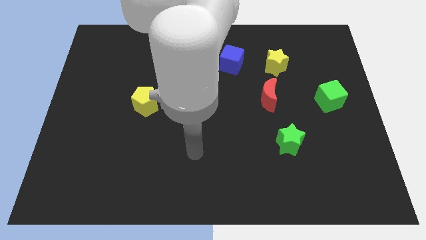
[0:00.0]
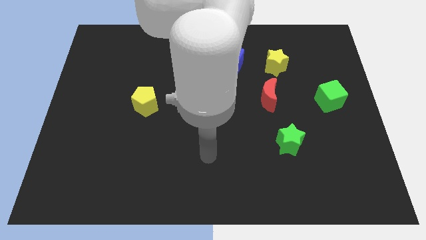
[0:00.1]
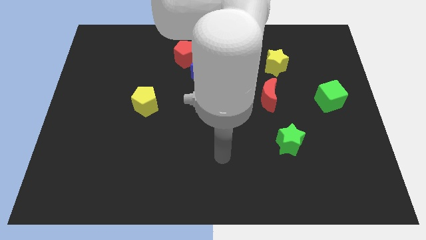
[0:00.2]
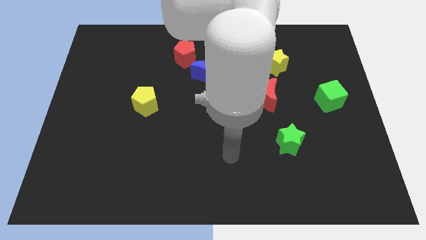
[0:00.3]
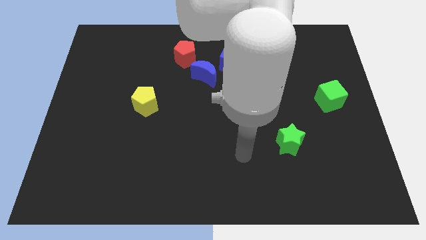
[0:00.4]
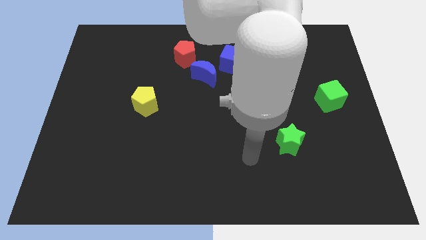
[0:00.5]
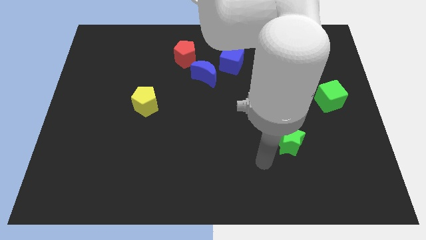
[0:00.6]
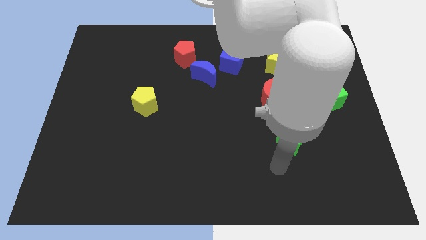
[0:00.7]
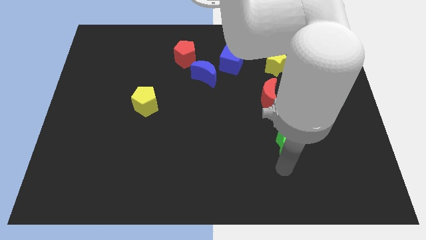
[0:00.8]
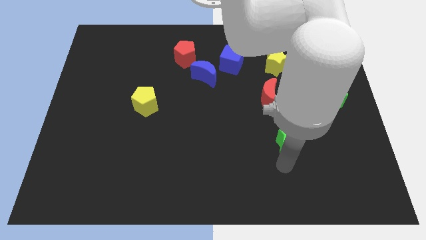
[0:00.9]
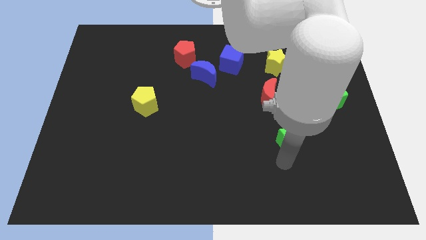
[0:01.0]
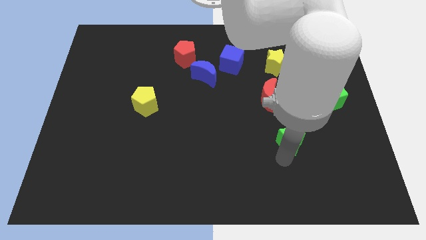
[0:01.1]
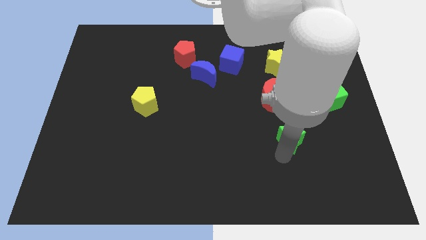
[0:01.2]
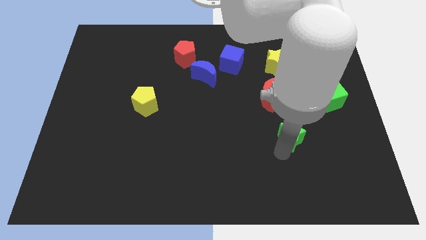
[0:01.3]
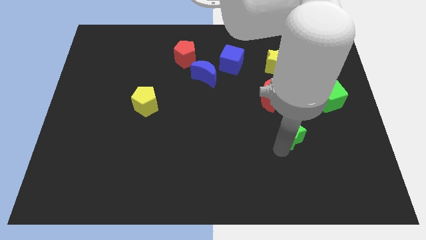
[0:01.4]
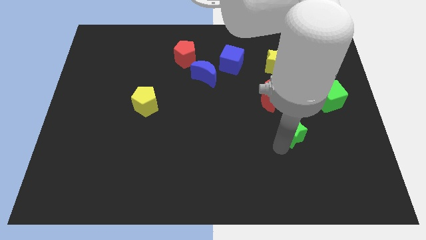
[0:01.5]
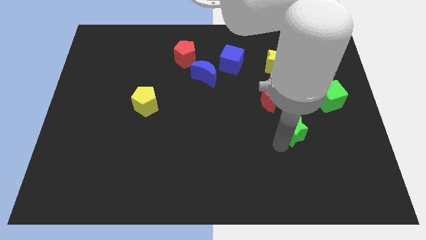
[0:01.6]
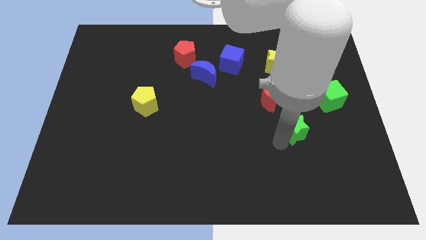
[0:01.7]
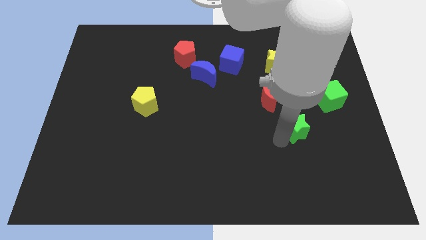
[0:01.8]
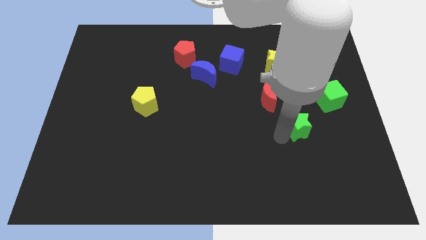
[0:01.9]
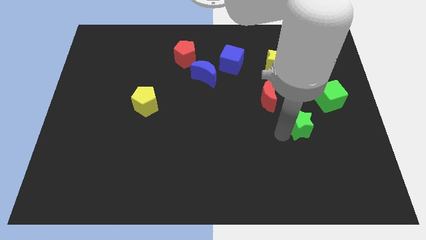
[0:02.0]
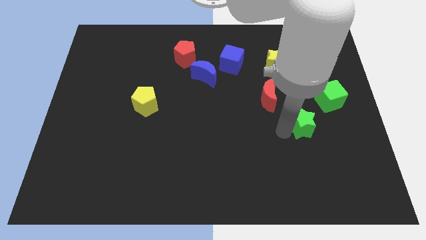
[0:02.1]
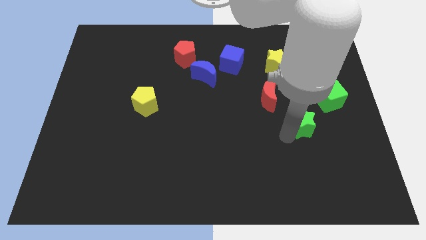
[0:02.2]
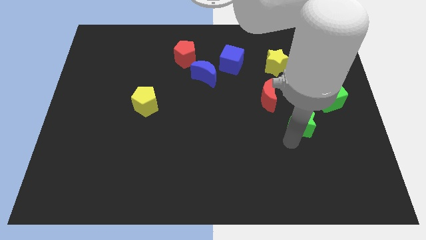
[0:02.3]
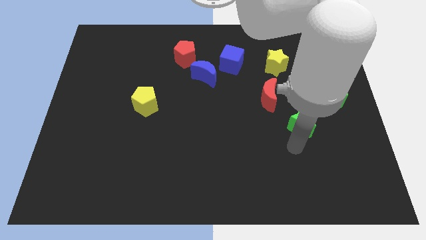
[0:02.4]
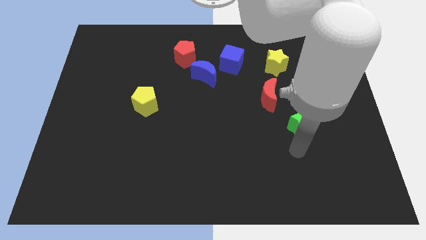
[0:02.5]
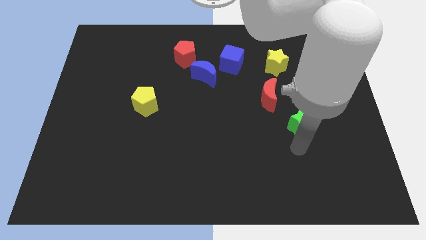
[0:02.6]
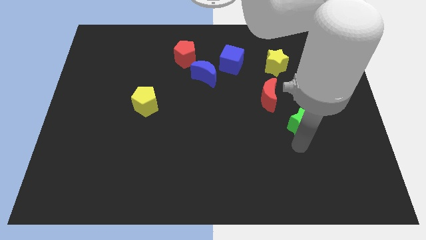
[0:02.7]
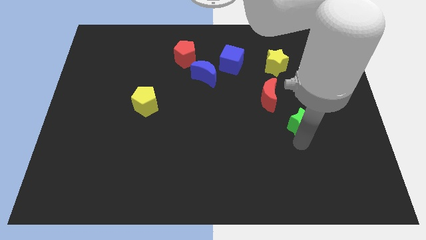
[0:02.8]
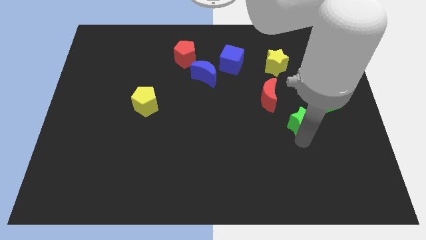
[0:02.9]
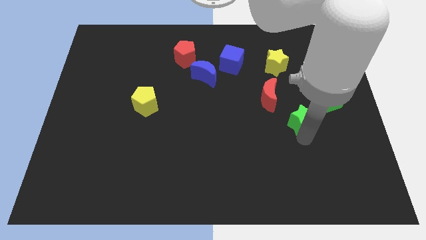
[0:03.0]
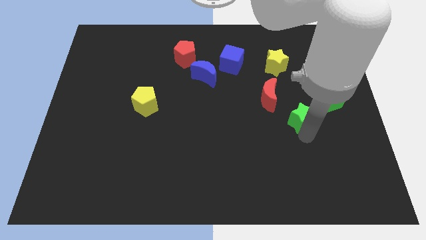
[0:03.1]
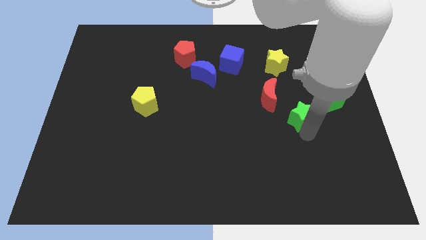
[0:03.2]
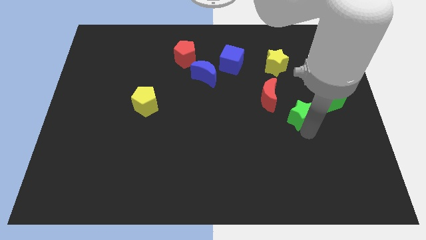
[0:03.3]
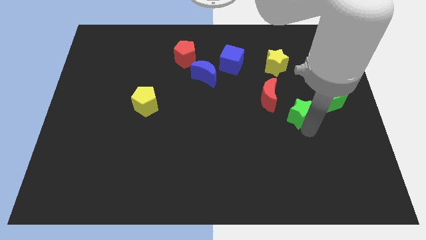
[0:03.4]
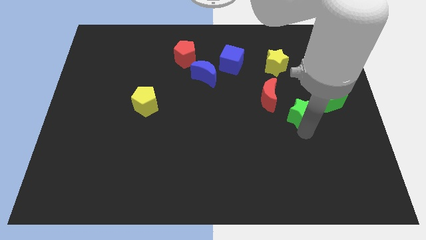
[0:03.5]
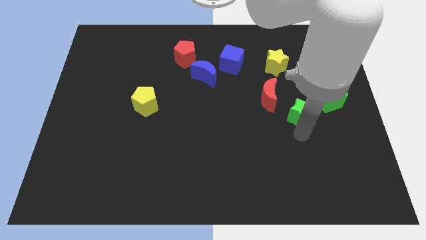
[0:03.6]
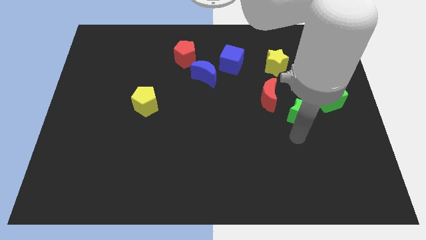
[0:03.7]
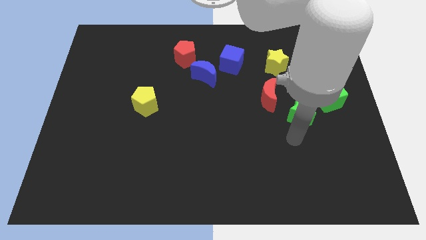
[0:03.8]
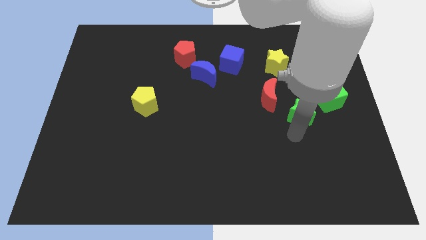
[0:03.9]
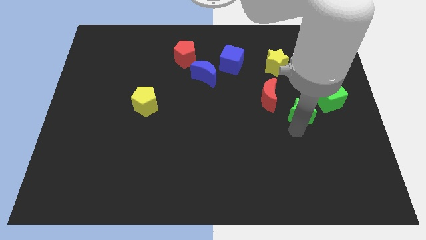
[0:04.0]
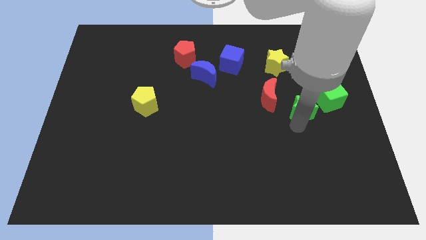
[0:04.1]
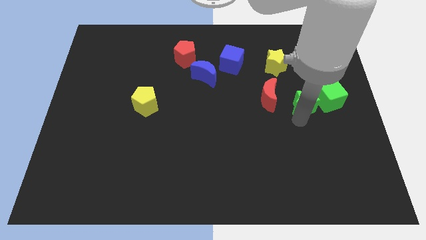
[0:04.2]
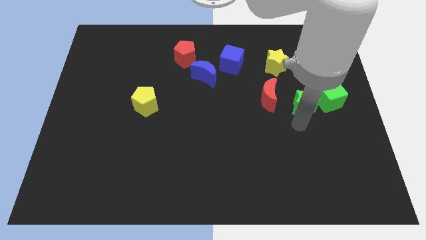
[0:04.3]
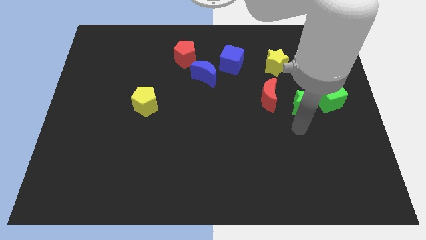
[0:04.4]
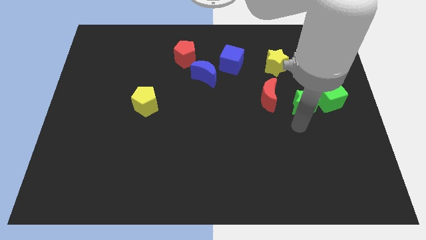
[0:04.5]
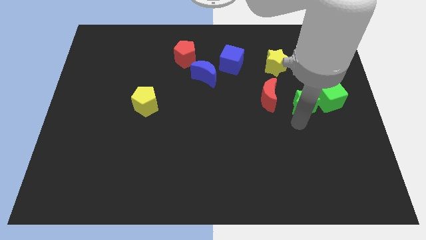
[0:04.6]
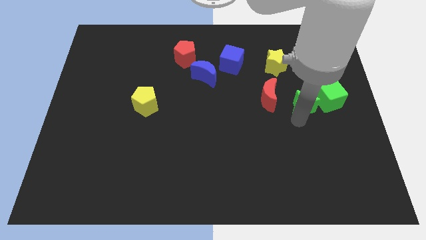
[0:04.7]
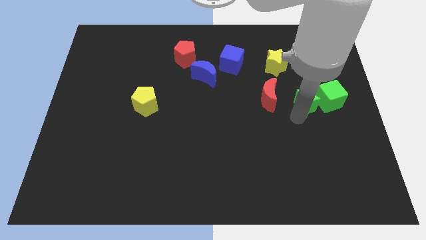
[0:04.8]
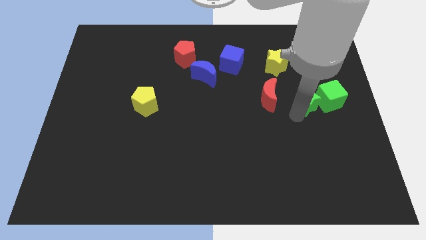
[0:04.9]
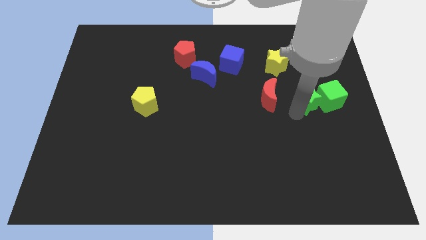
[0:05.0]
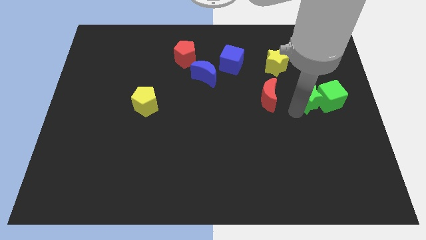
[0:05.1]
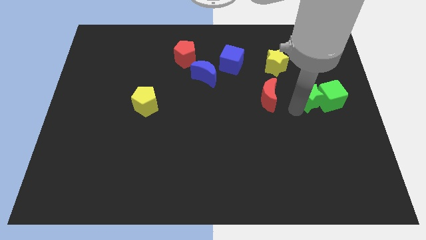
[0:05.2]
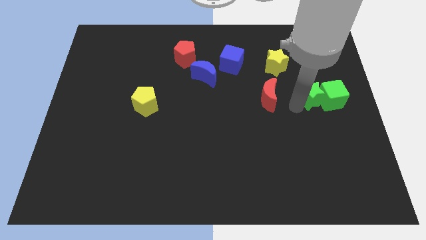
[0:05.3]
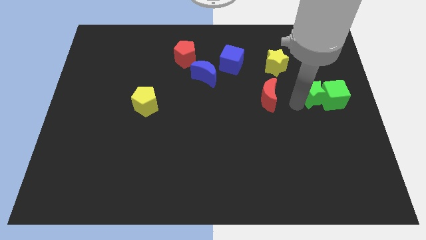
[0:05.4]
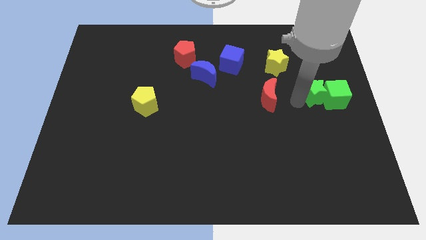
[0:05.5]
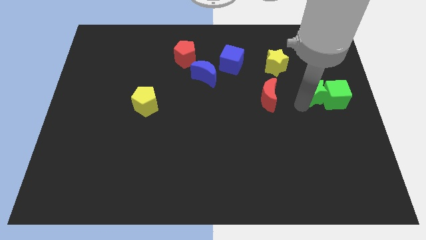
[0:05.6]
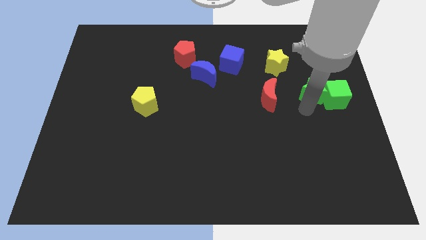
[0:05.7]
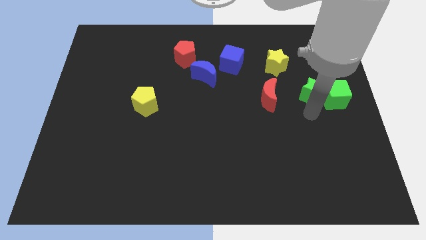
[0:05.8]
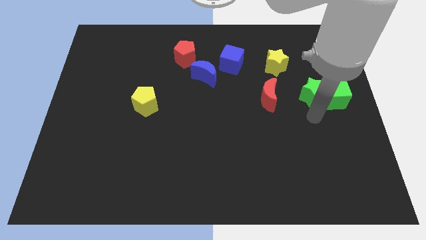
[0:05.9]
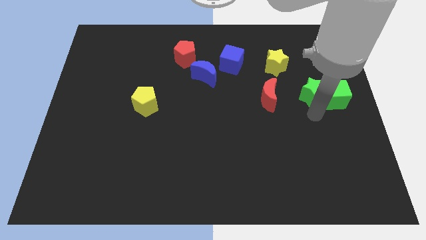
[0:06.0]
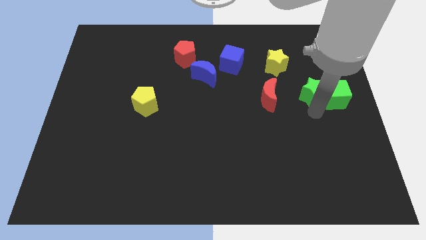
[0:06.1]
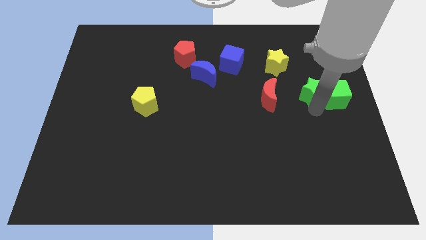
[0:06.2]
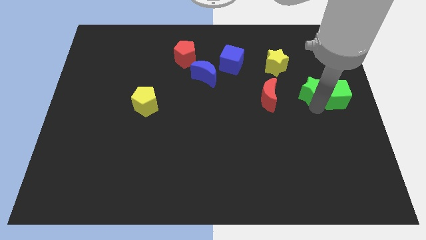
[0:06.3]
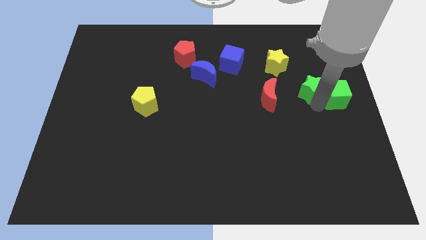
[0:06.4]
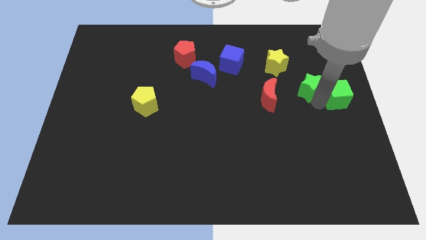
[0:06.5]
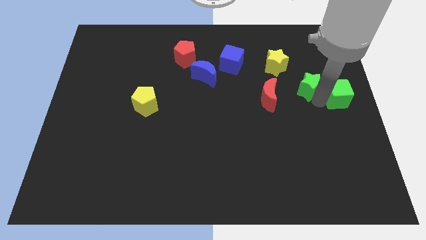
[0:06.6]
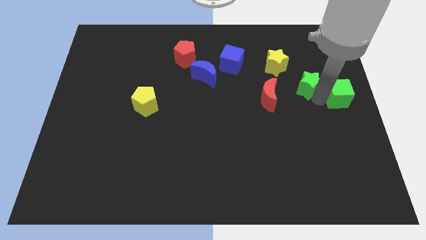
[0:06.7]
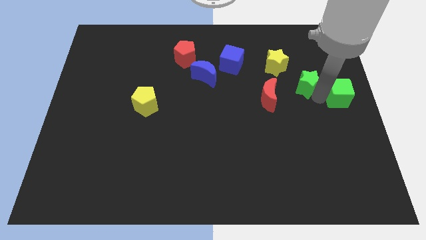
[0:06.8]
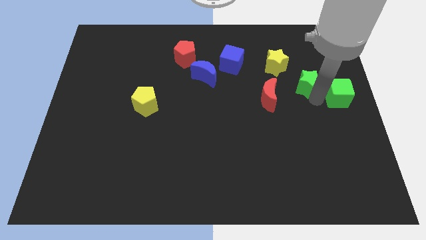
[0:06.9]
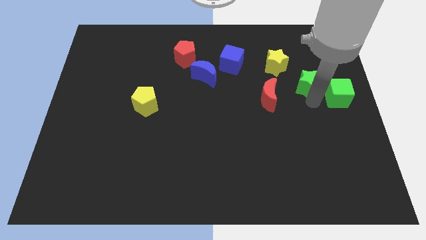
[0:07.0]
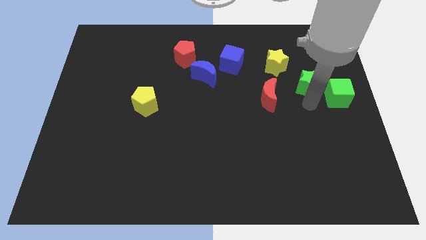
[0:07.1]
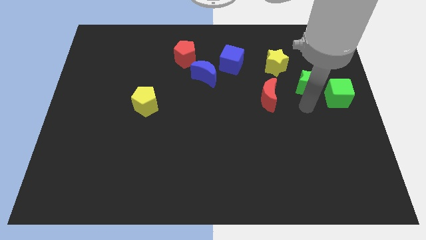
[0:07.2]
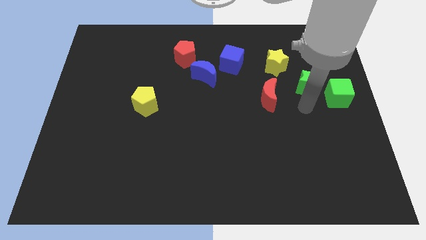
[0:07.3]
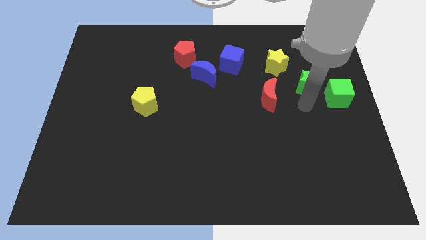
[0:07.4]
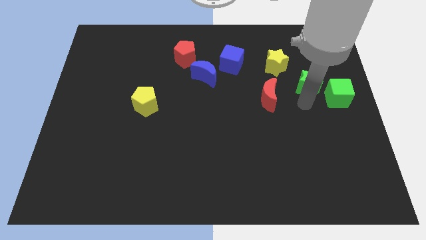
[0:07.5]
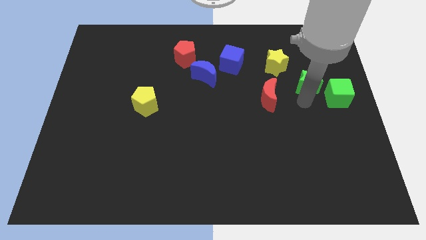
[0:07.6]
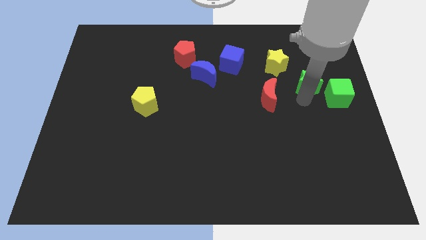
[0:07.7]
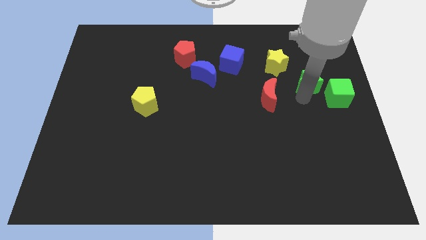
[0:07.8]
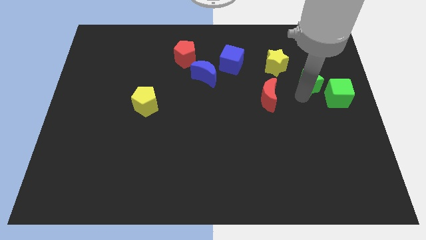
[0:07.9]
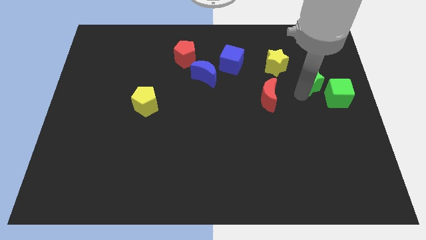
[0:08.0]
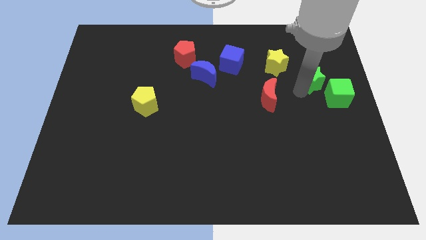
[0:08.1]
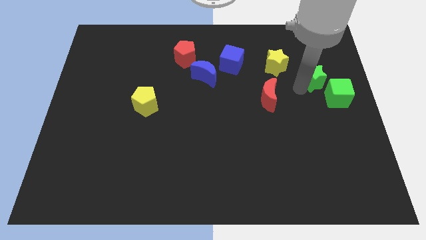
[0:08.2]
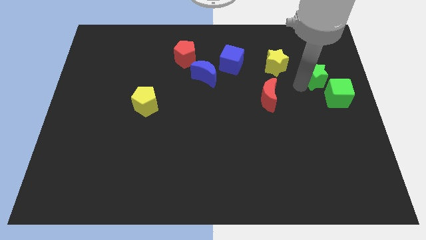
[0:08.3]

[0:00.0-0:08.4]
push the green star to the top side of the green cube
